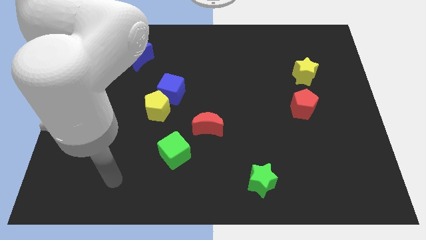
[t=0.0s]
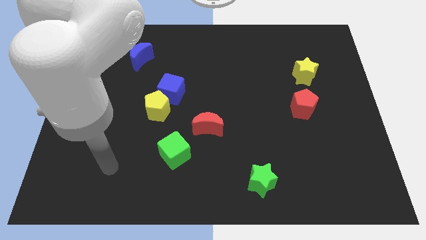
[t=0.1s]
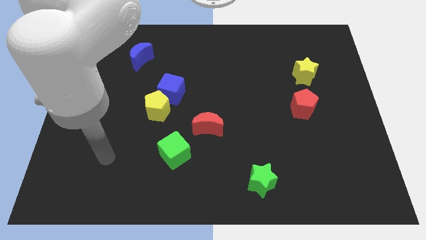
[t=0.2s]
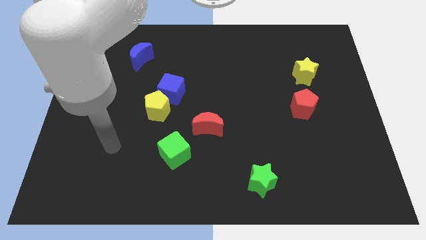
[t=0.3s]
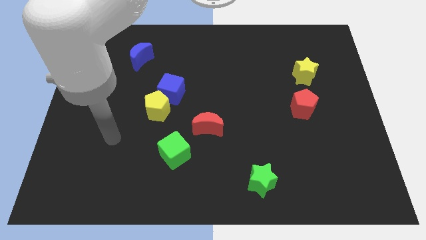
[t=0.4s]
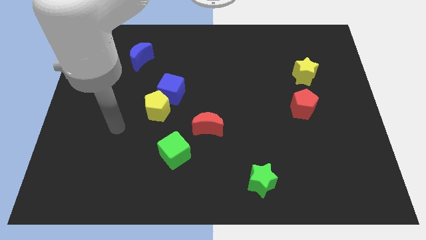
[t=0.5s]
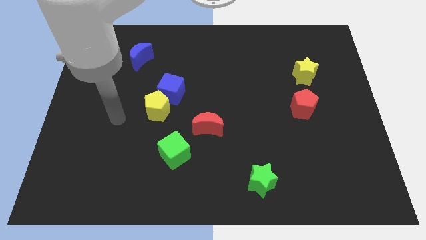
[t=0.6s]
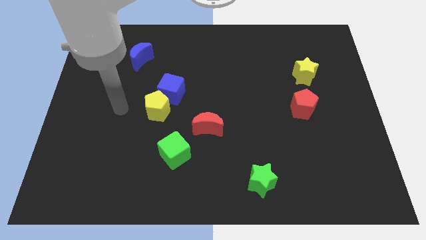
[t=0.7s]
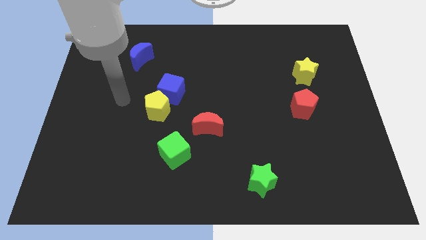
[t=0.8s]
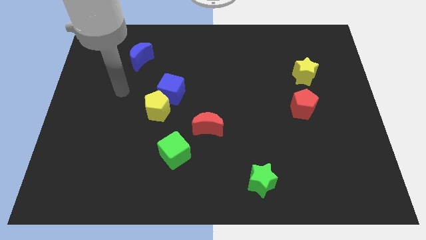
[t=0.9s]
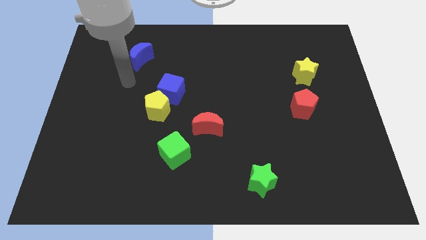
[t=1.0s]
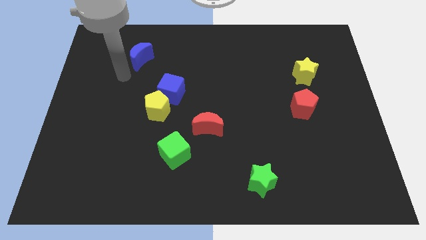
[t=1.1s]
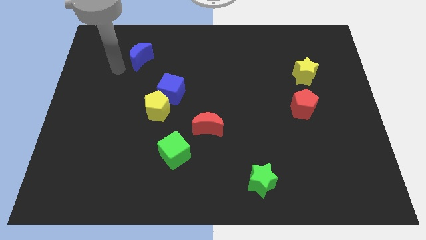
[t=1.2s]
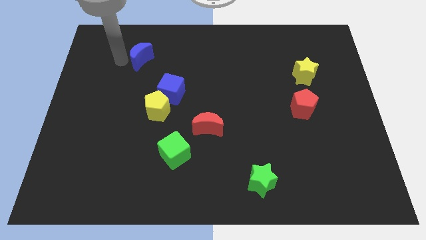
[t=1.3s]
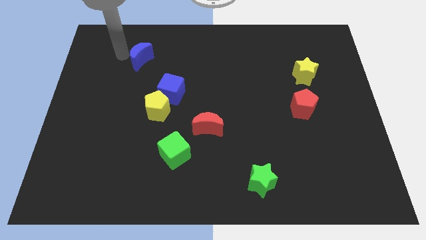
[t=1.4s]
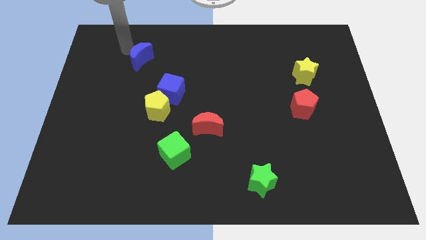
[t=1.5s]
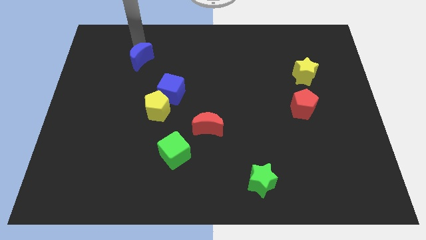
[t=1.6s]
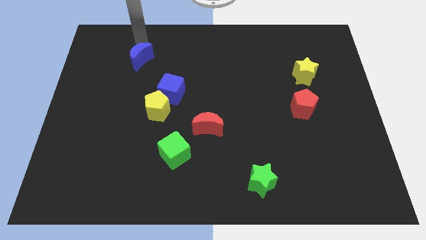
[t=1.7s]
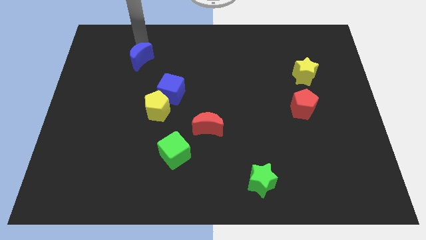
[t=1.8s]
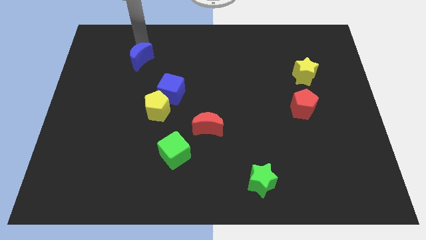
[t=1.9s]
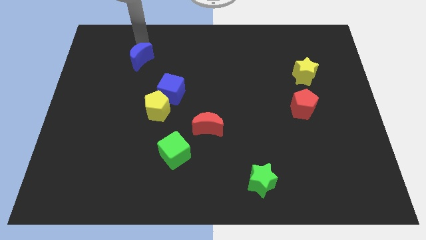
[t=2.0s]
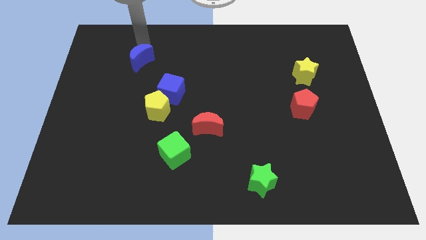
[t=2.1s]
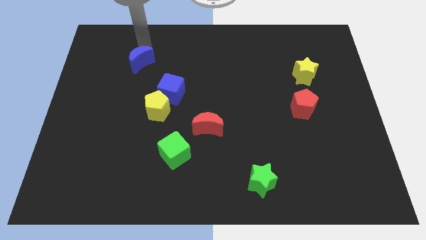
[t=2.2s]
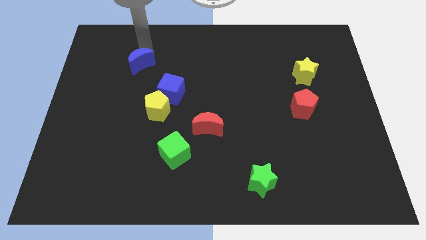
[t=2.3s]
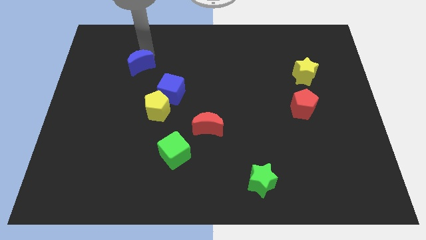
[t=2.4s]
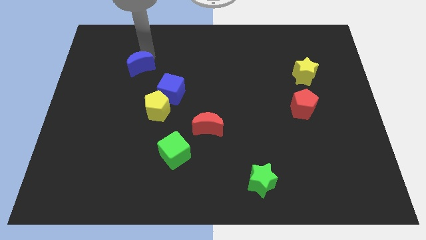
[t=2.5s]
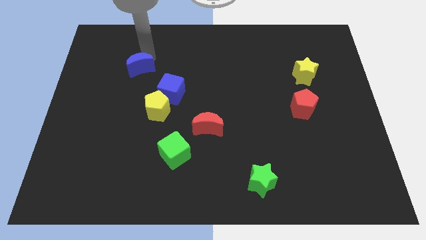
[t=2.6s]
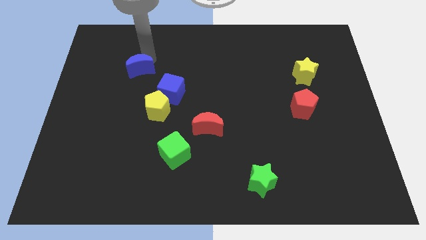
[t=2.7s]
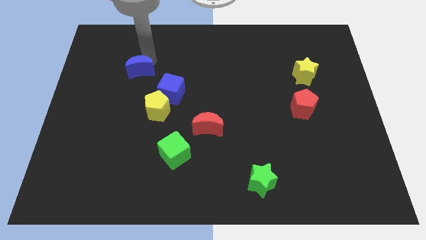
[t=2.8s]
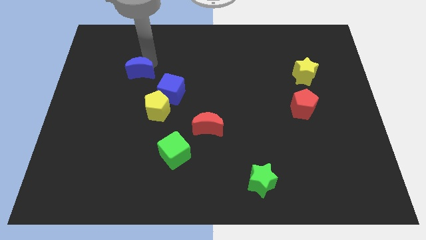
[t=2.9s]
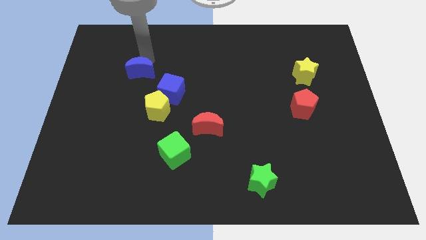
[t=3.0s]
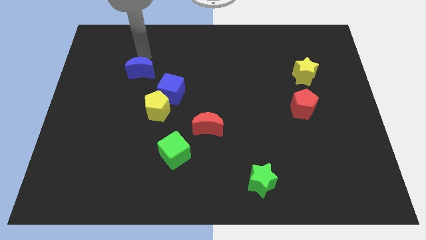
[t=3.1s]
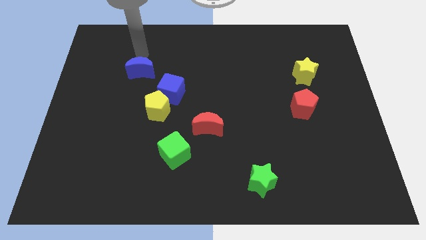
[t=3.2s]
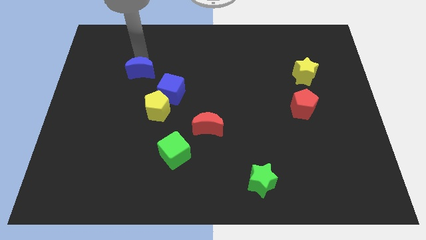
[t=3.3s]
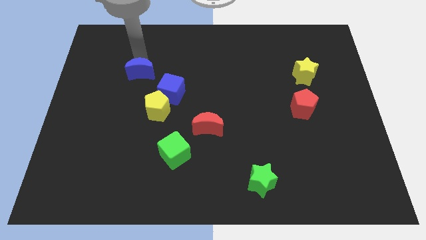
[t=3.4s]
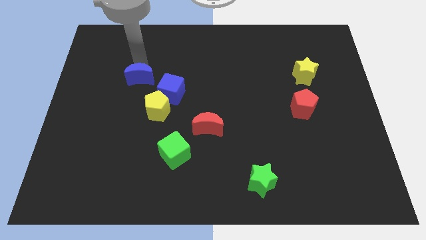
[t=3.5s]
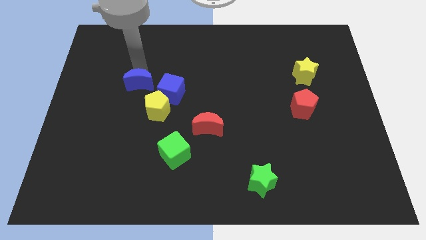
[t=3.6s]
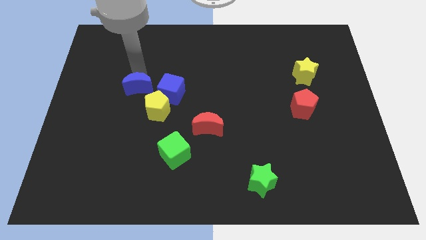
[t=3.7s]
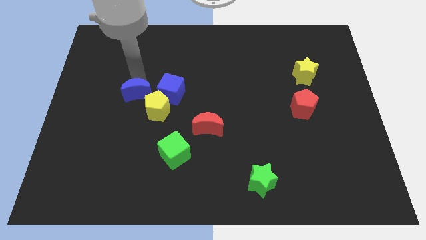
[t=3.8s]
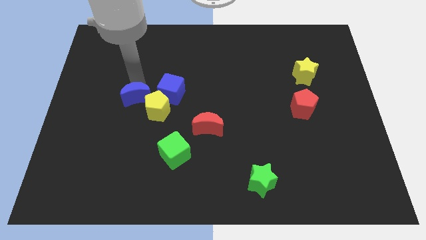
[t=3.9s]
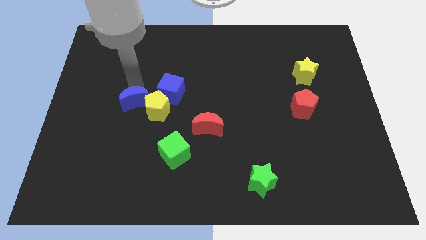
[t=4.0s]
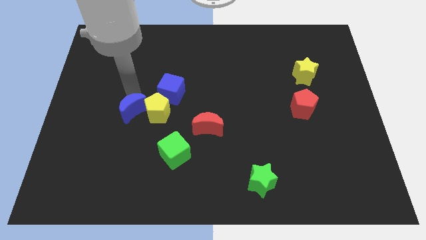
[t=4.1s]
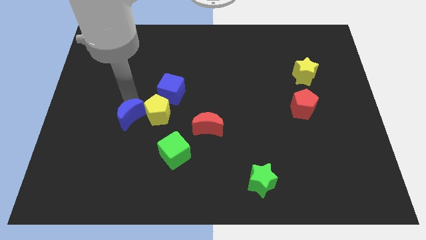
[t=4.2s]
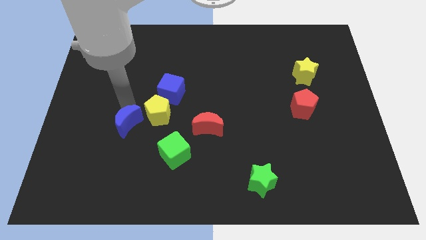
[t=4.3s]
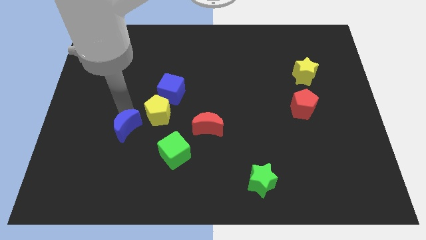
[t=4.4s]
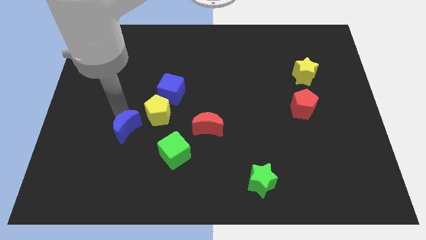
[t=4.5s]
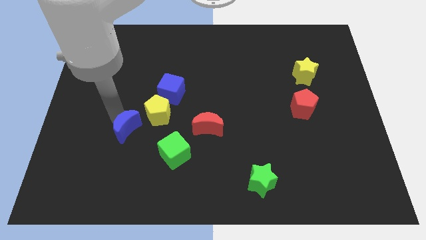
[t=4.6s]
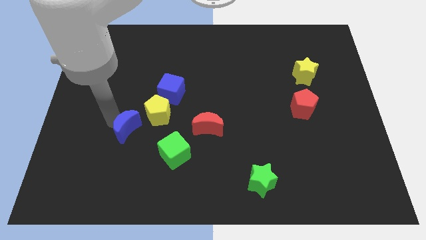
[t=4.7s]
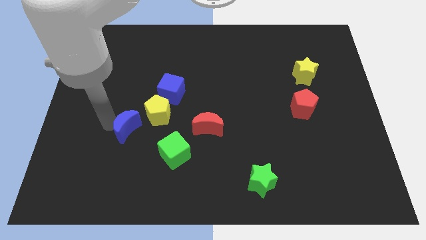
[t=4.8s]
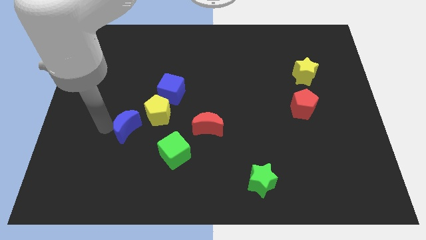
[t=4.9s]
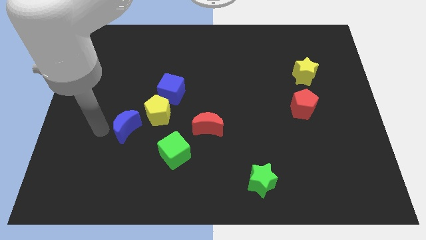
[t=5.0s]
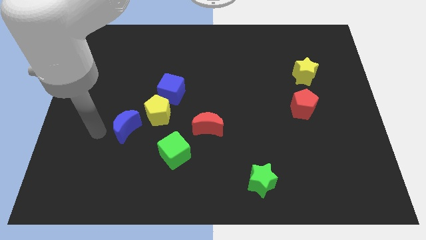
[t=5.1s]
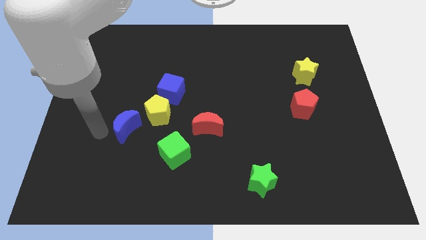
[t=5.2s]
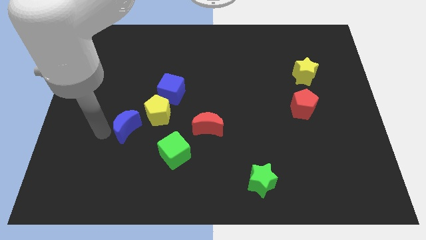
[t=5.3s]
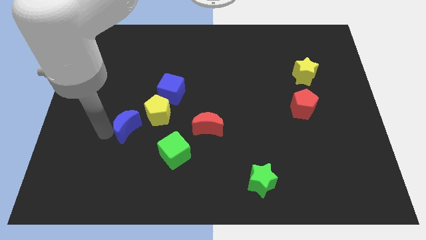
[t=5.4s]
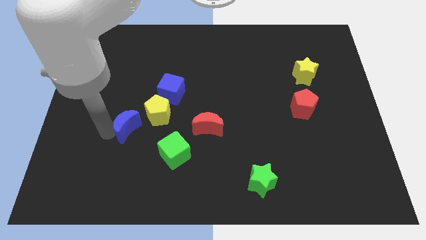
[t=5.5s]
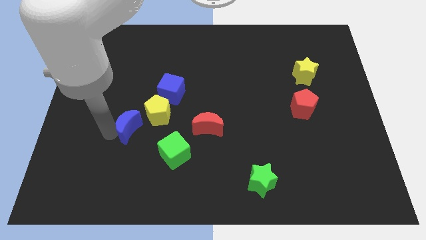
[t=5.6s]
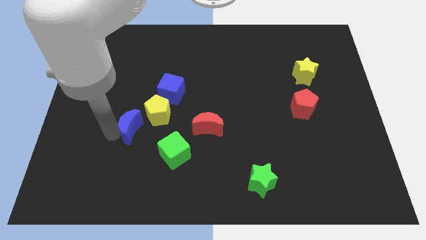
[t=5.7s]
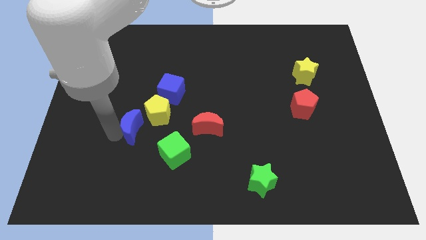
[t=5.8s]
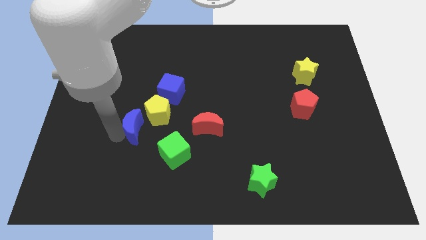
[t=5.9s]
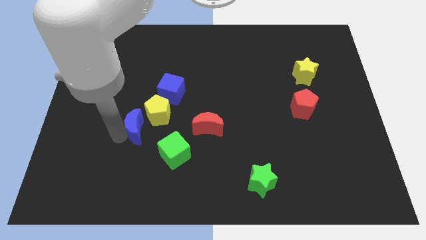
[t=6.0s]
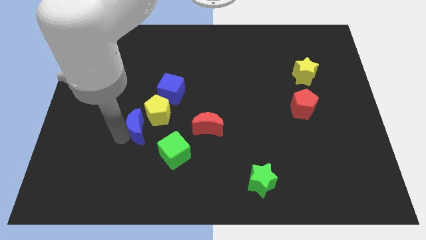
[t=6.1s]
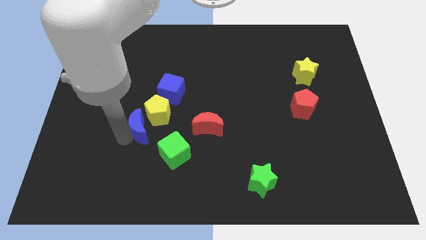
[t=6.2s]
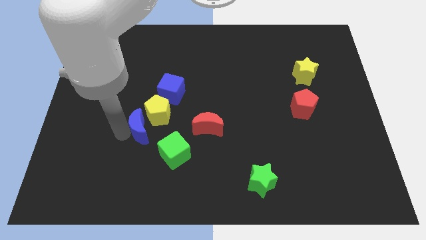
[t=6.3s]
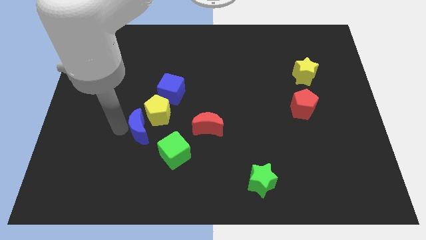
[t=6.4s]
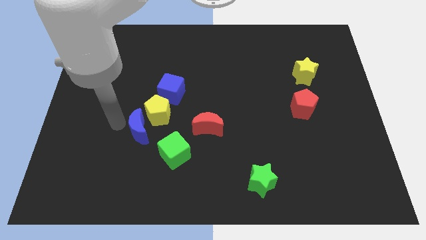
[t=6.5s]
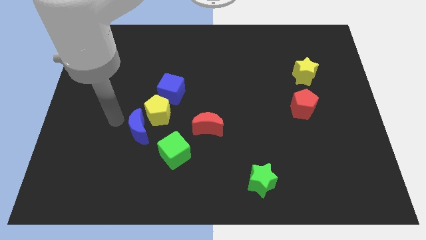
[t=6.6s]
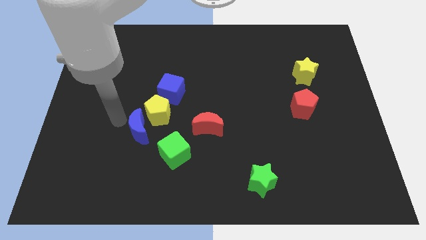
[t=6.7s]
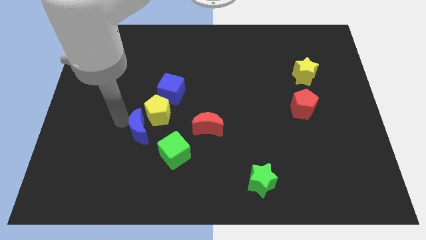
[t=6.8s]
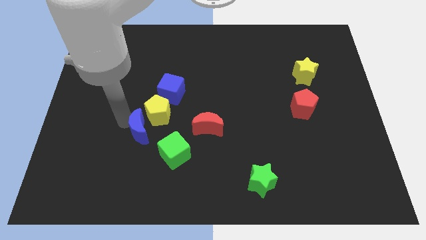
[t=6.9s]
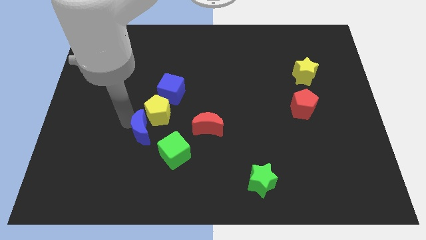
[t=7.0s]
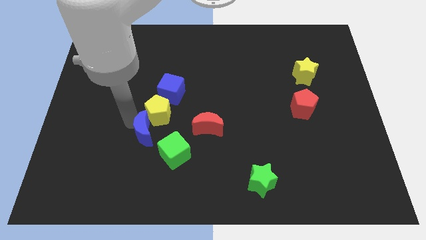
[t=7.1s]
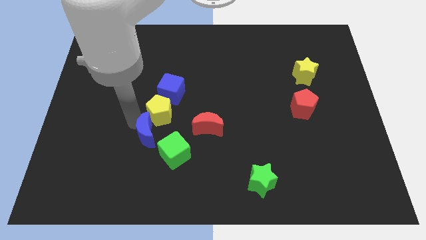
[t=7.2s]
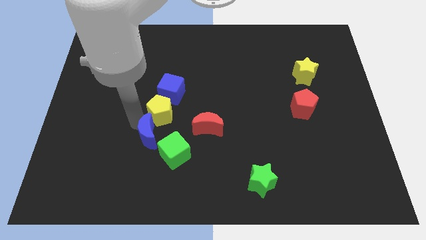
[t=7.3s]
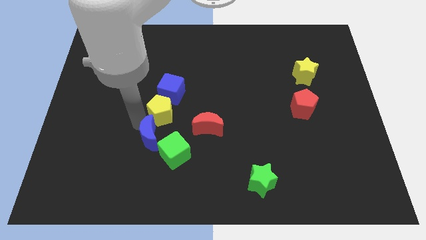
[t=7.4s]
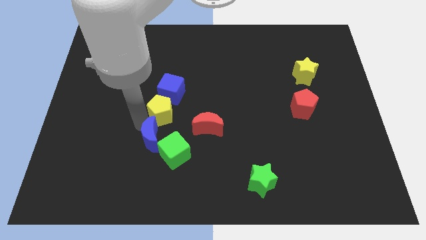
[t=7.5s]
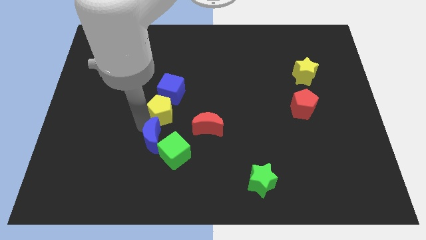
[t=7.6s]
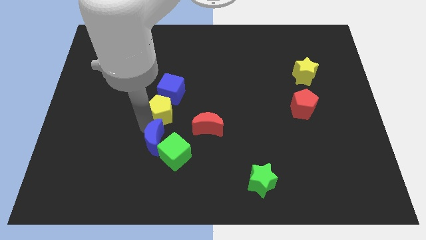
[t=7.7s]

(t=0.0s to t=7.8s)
push the blue moon towards the green cube
